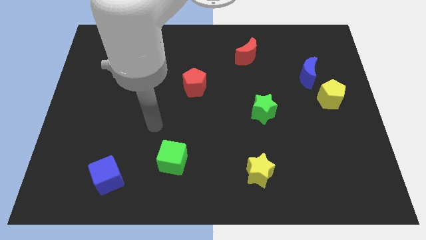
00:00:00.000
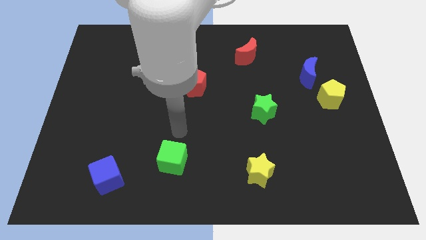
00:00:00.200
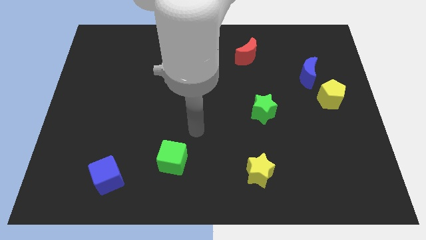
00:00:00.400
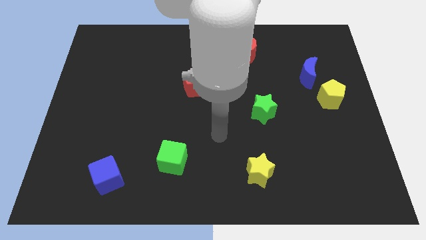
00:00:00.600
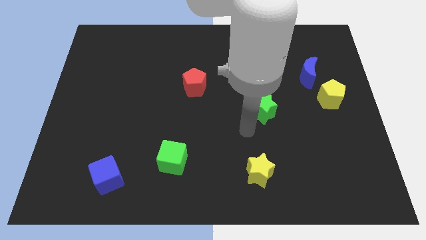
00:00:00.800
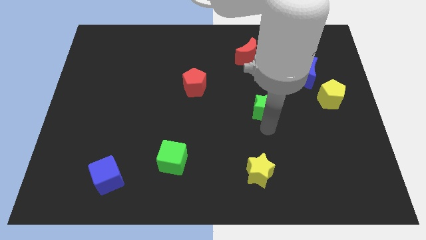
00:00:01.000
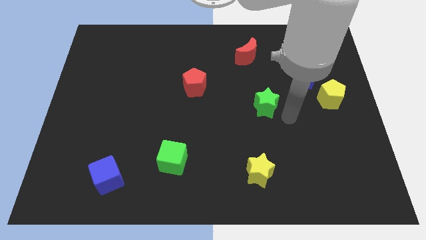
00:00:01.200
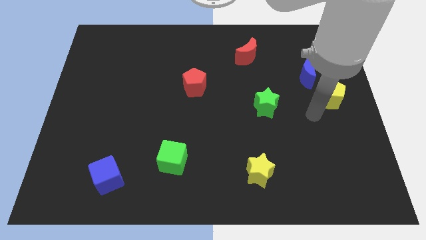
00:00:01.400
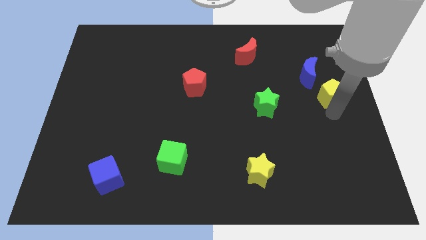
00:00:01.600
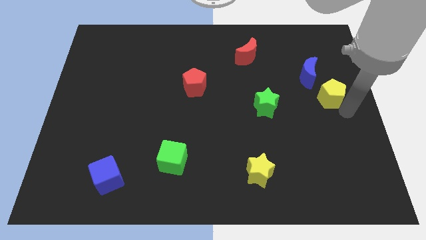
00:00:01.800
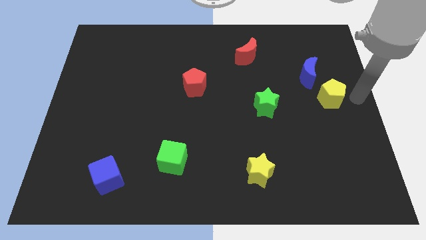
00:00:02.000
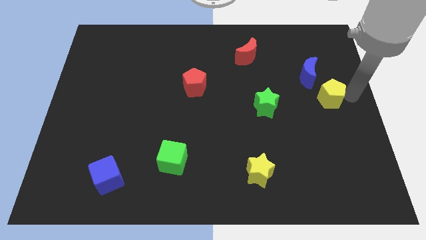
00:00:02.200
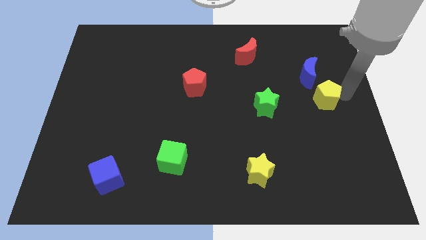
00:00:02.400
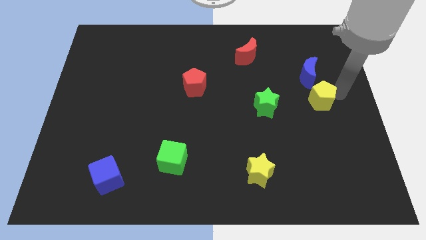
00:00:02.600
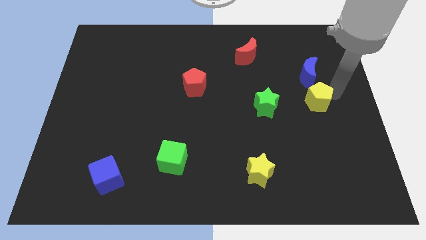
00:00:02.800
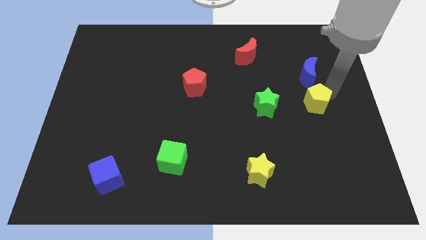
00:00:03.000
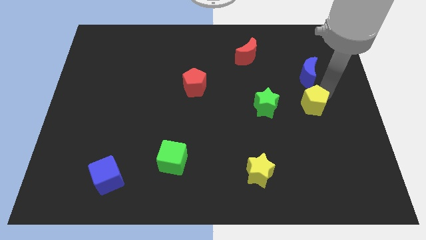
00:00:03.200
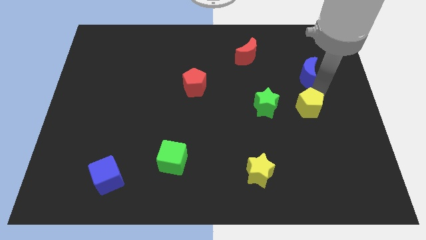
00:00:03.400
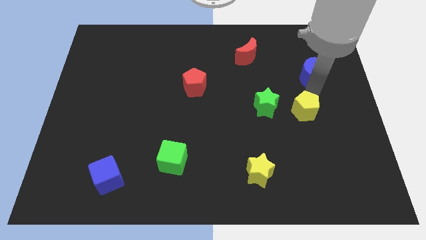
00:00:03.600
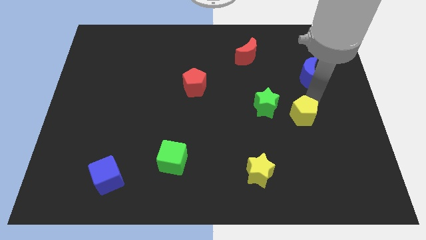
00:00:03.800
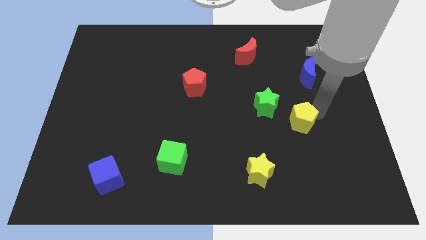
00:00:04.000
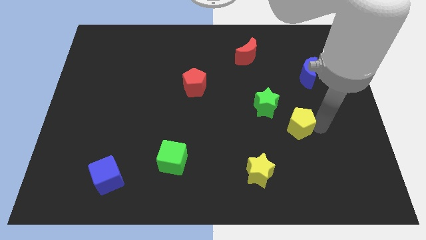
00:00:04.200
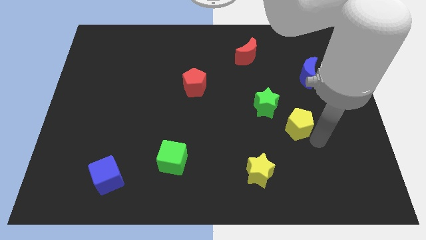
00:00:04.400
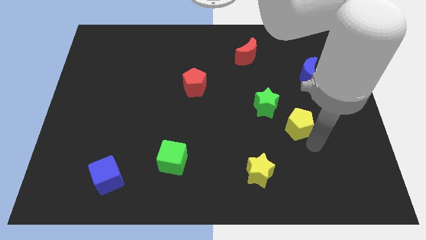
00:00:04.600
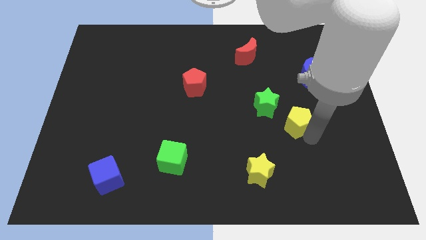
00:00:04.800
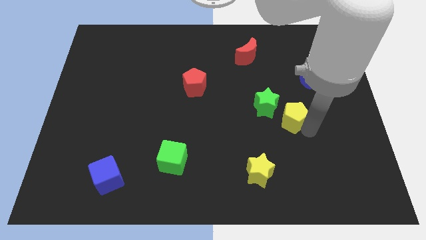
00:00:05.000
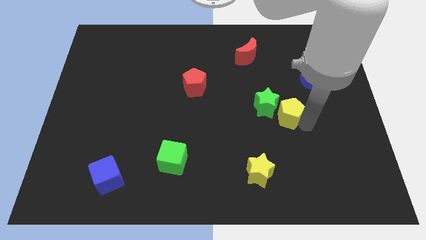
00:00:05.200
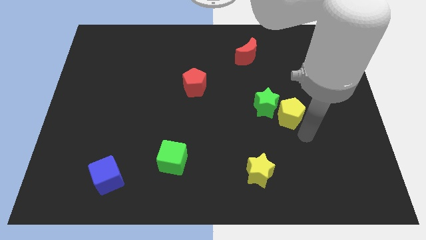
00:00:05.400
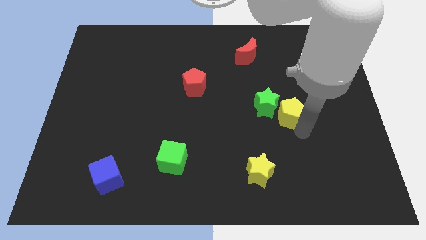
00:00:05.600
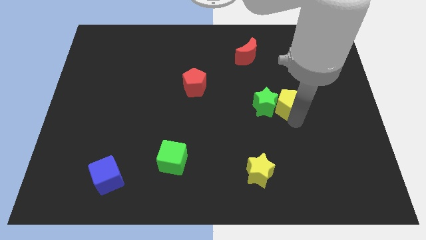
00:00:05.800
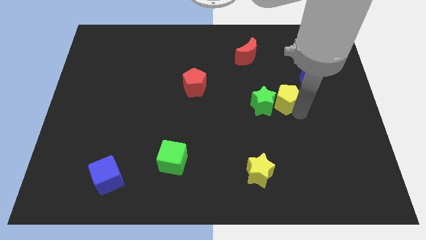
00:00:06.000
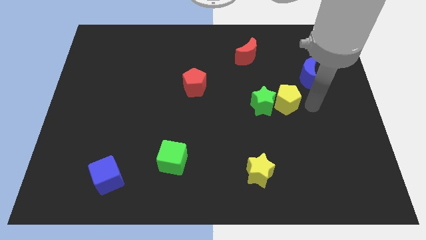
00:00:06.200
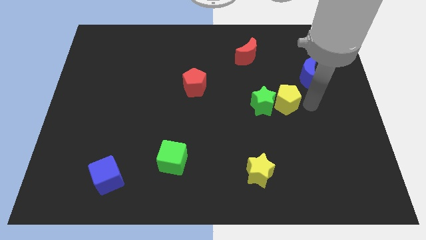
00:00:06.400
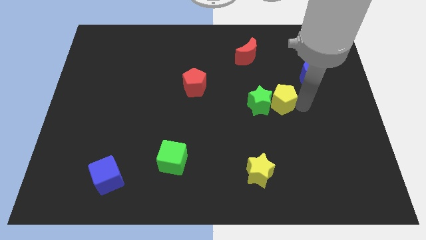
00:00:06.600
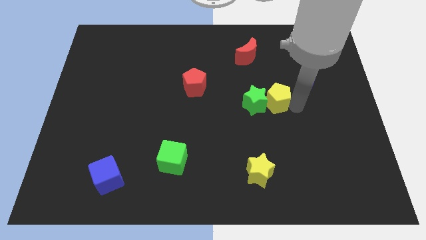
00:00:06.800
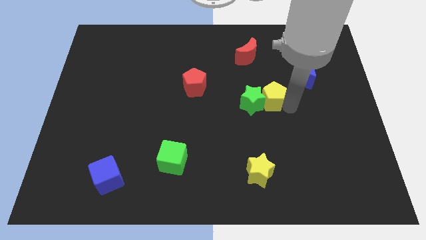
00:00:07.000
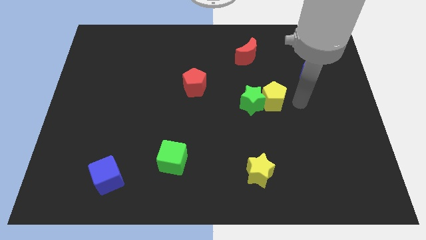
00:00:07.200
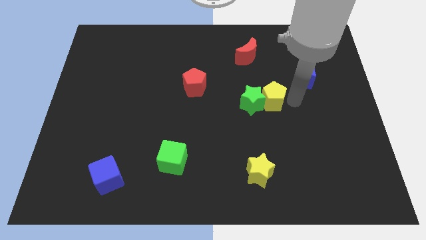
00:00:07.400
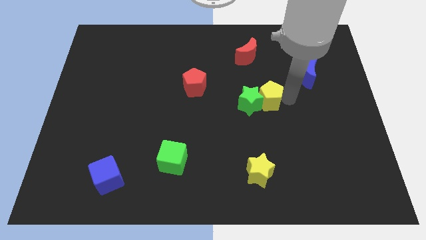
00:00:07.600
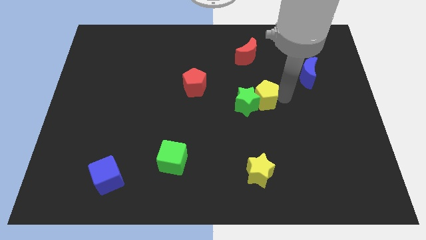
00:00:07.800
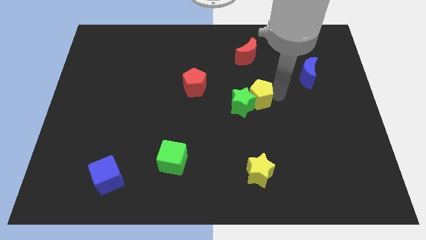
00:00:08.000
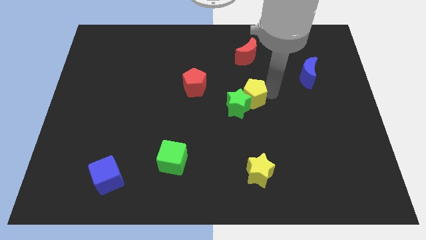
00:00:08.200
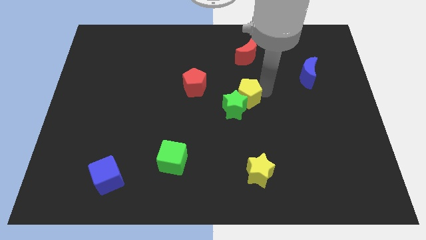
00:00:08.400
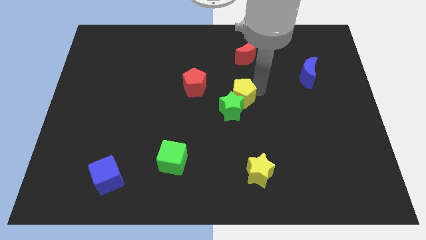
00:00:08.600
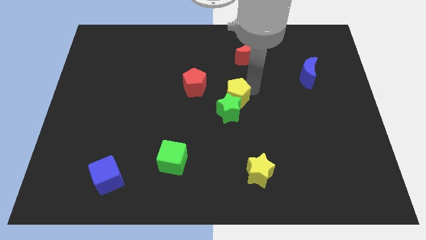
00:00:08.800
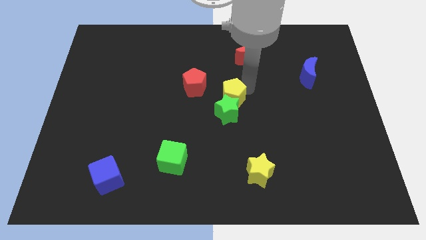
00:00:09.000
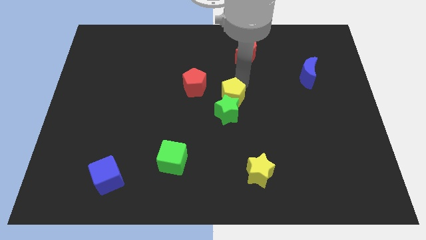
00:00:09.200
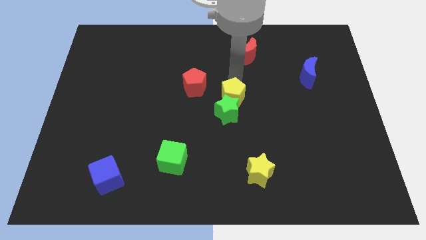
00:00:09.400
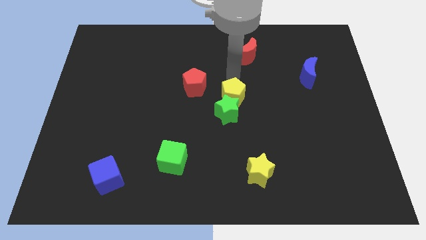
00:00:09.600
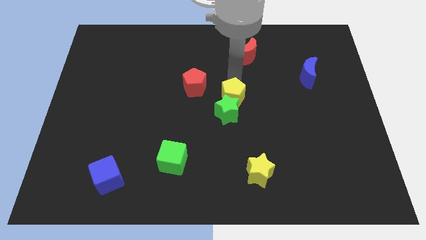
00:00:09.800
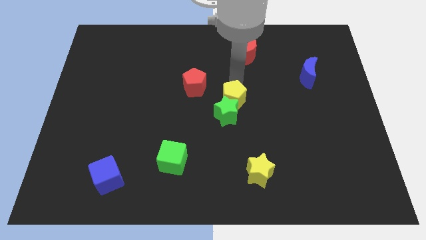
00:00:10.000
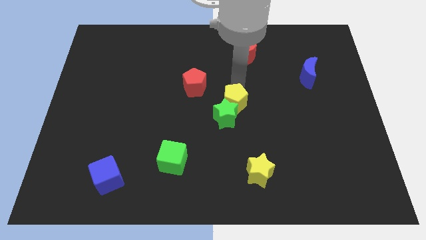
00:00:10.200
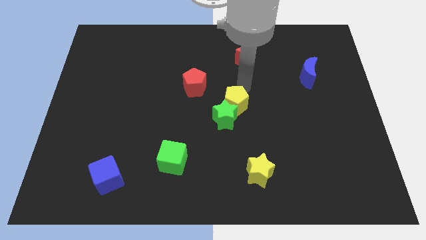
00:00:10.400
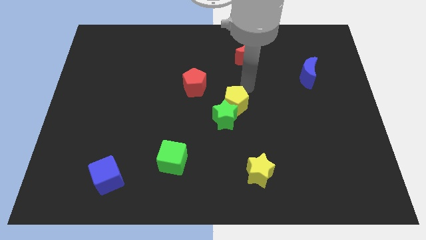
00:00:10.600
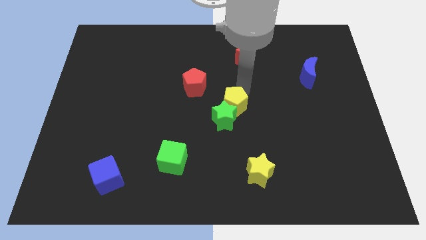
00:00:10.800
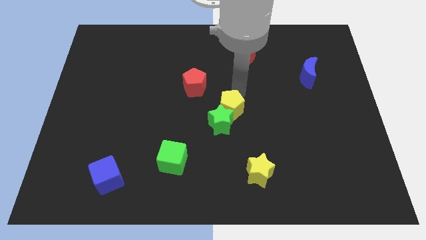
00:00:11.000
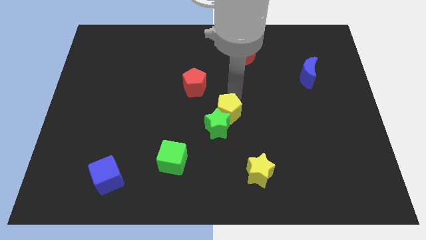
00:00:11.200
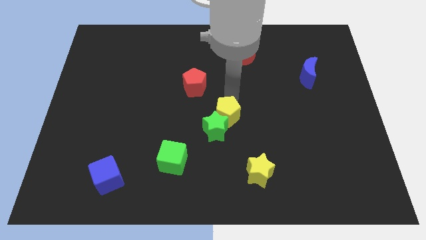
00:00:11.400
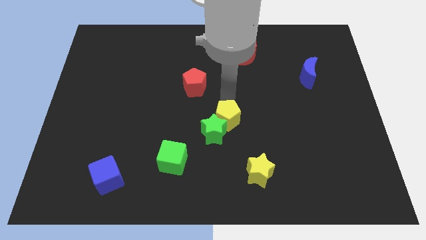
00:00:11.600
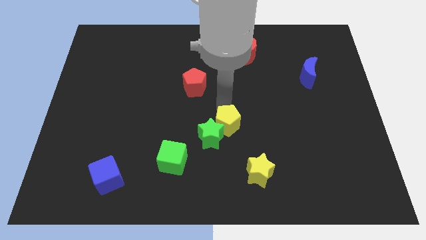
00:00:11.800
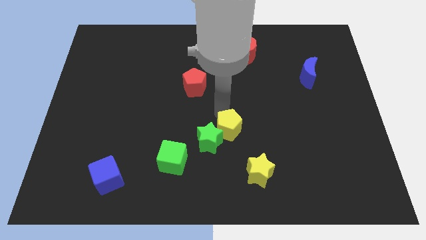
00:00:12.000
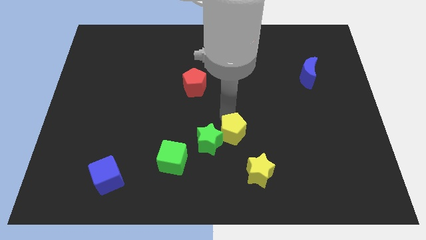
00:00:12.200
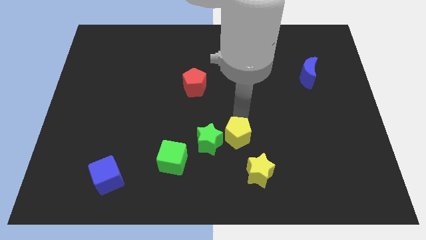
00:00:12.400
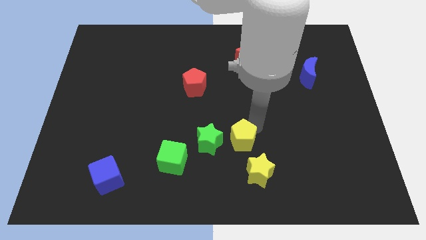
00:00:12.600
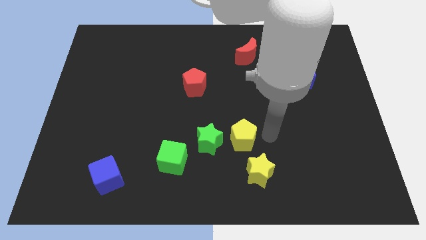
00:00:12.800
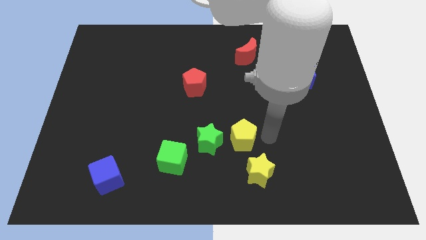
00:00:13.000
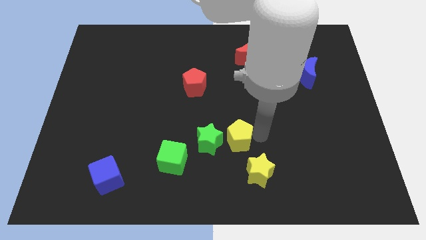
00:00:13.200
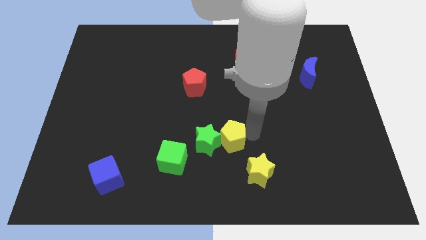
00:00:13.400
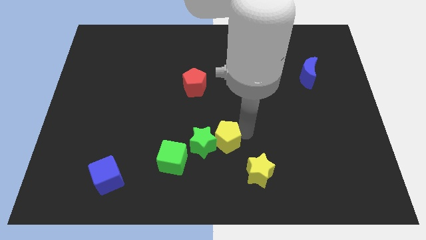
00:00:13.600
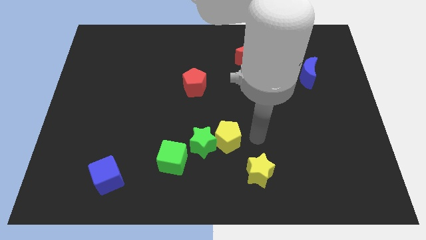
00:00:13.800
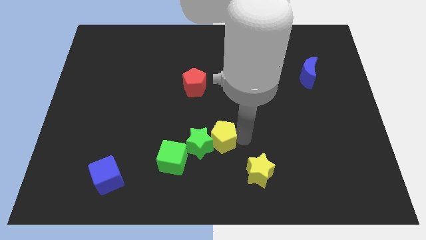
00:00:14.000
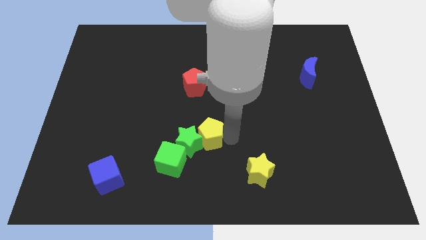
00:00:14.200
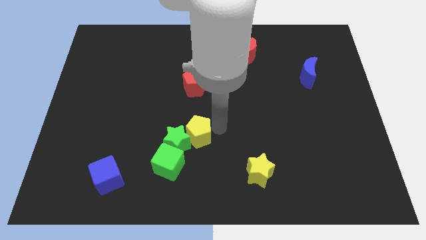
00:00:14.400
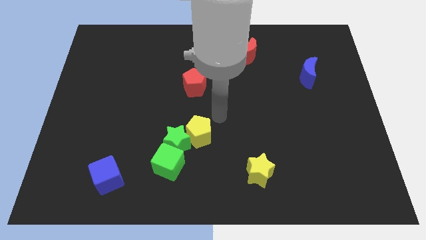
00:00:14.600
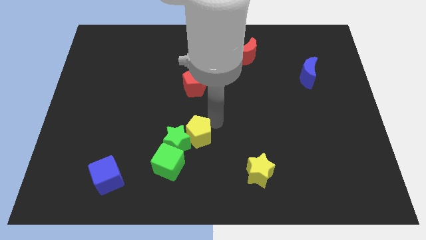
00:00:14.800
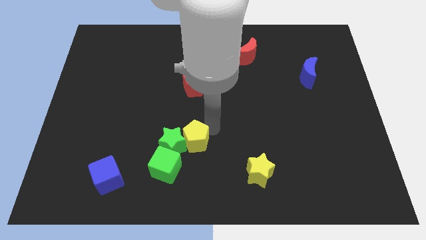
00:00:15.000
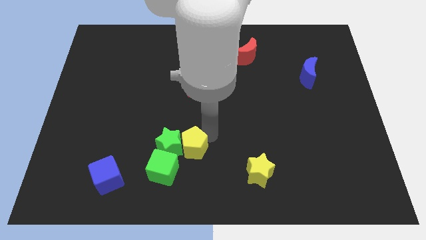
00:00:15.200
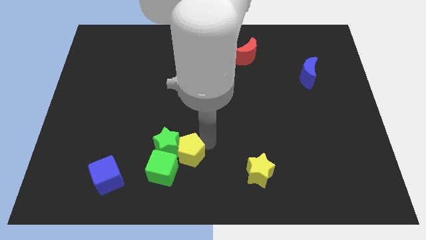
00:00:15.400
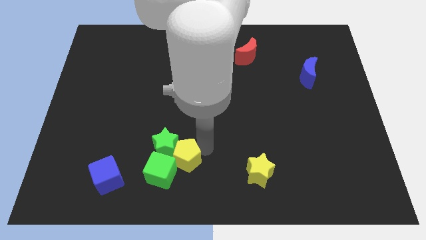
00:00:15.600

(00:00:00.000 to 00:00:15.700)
move the yellow pentagon towards the green cube

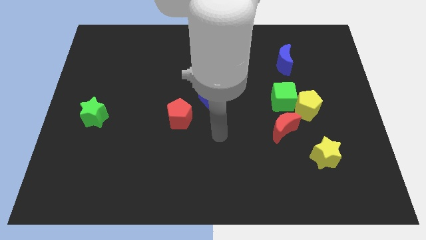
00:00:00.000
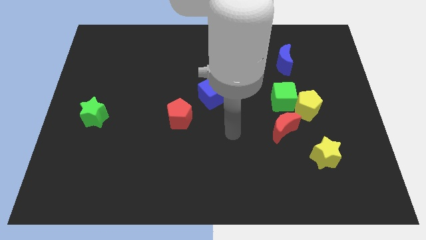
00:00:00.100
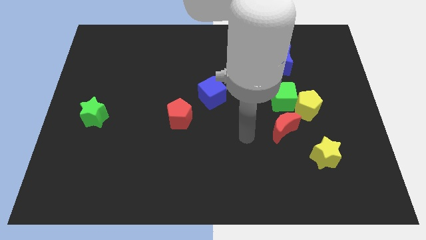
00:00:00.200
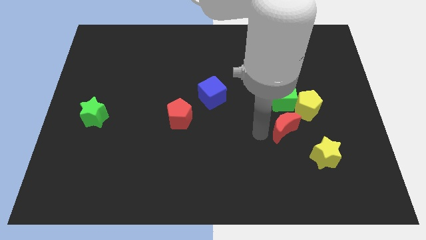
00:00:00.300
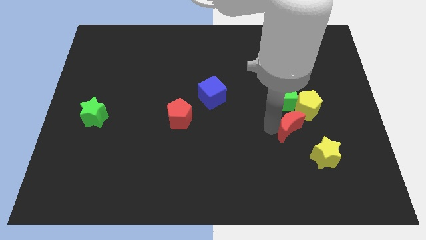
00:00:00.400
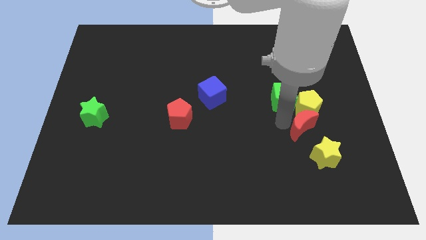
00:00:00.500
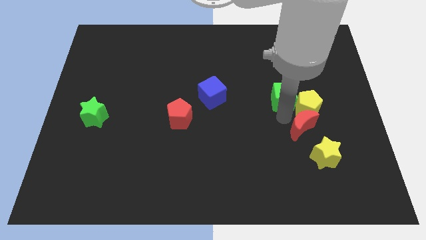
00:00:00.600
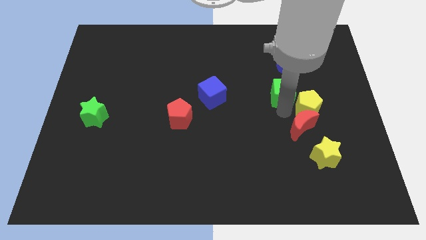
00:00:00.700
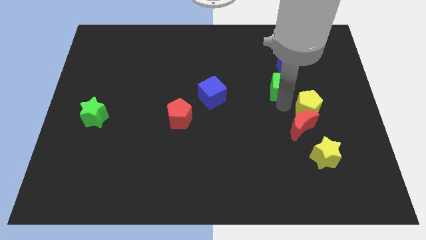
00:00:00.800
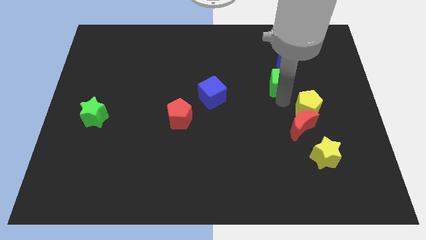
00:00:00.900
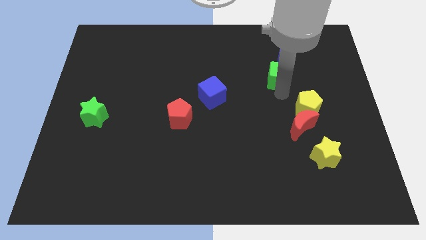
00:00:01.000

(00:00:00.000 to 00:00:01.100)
push the green cube to the blue moon
